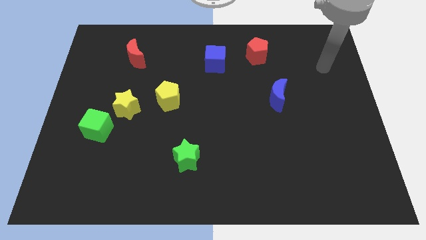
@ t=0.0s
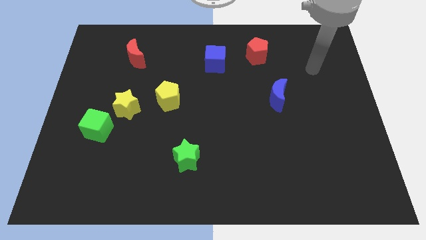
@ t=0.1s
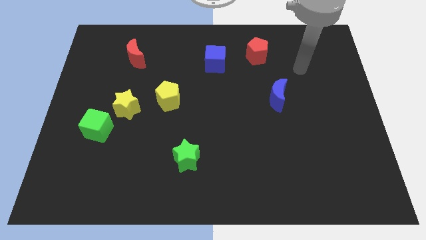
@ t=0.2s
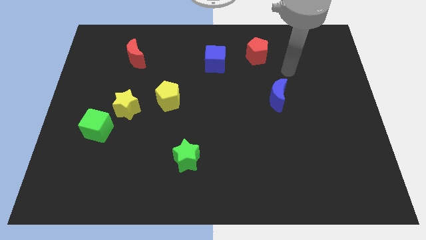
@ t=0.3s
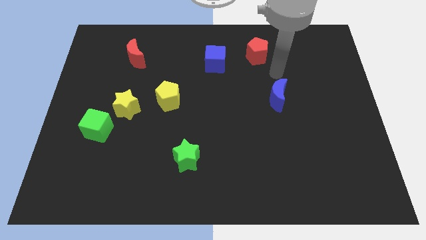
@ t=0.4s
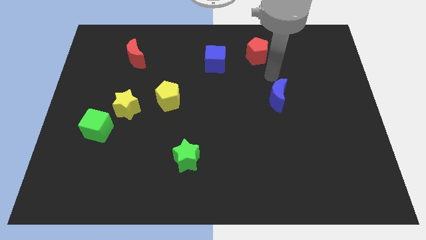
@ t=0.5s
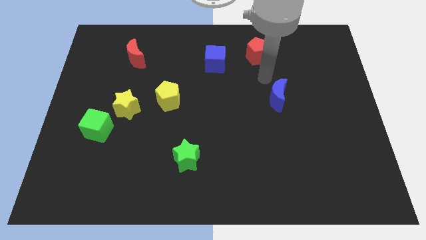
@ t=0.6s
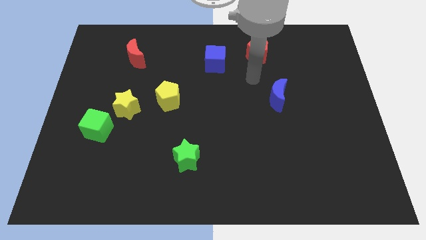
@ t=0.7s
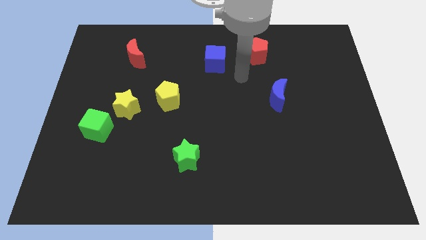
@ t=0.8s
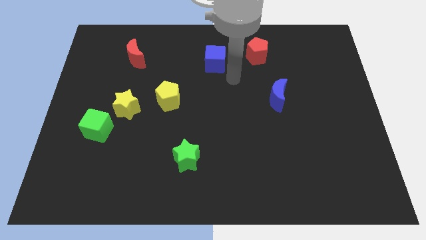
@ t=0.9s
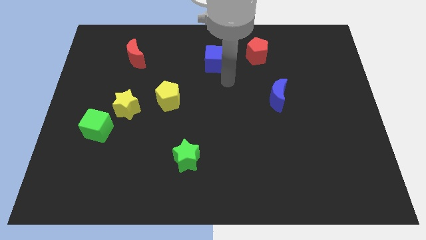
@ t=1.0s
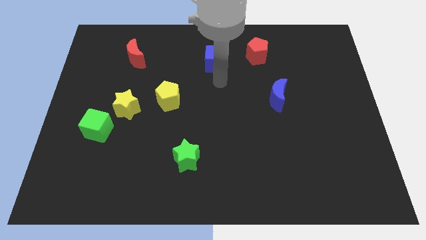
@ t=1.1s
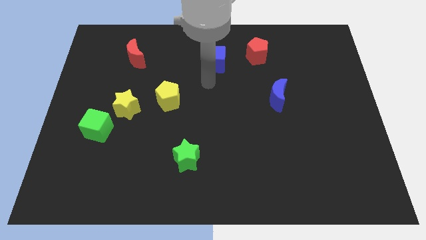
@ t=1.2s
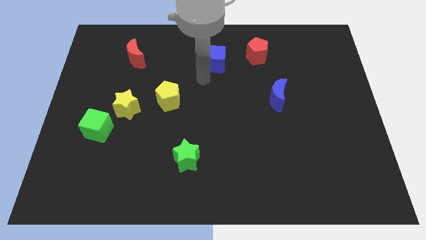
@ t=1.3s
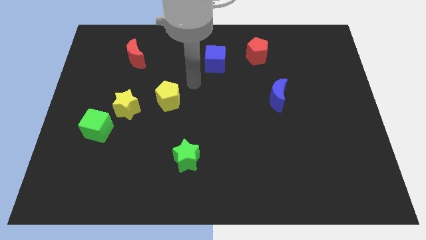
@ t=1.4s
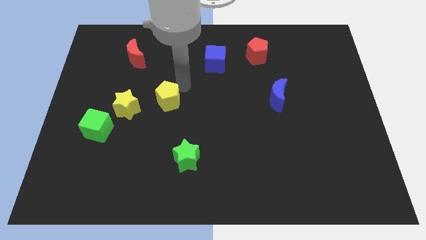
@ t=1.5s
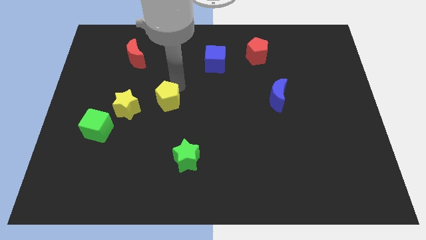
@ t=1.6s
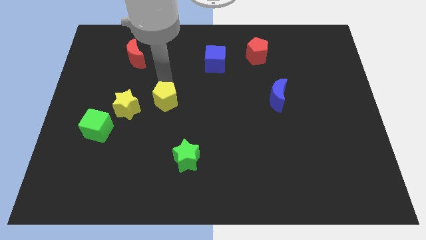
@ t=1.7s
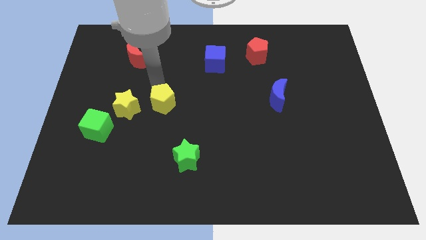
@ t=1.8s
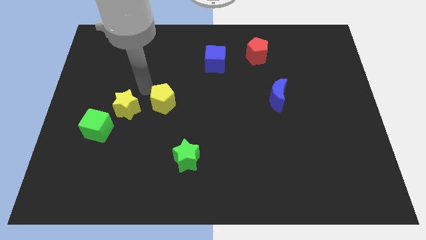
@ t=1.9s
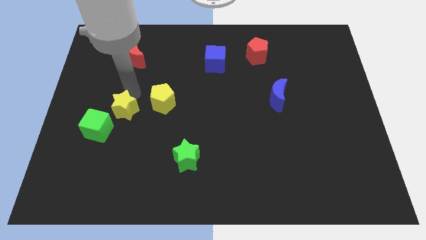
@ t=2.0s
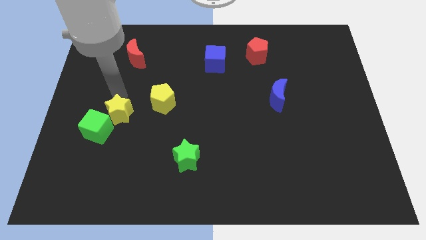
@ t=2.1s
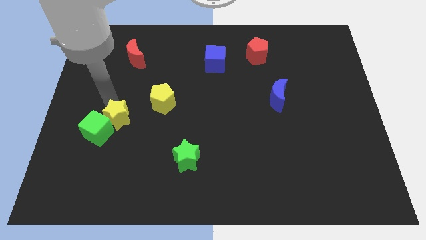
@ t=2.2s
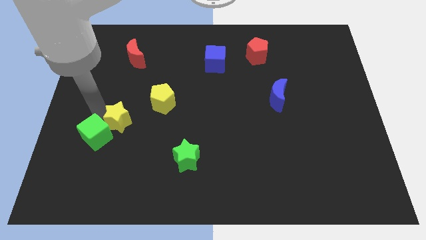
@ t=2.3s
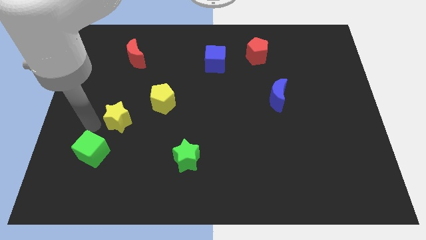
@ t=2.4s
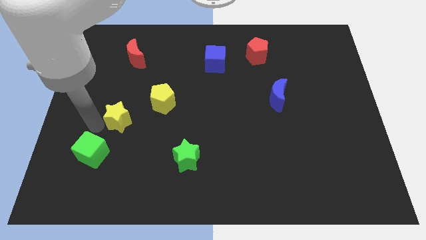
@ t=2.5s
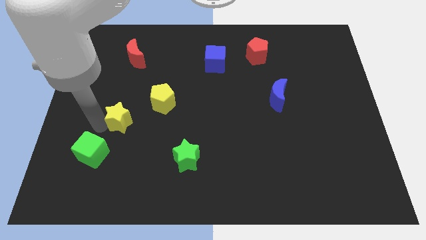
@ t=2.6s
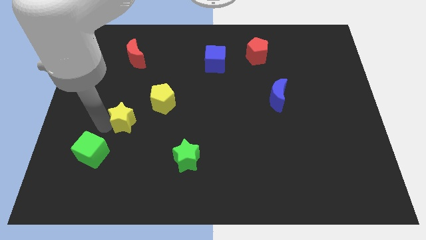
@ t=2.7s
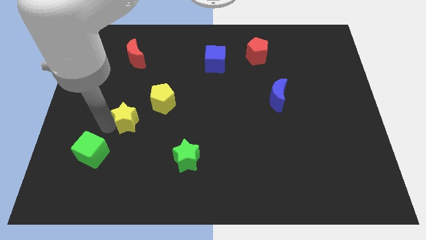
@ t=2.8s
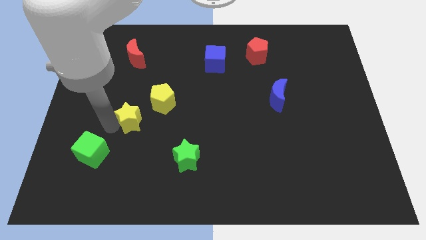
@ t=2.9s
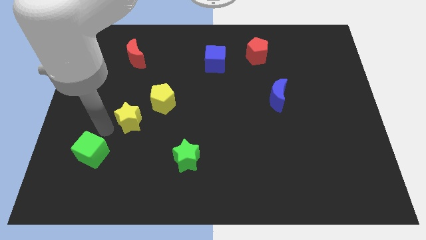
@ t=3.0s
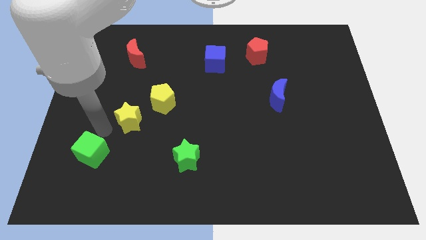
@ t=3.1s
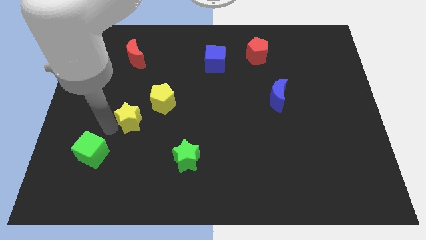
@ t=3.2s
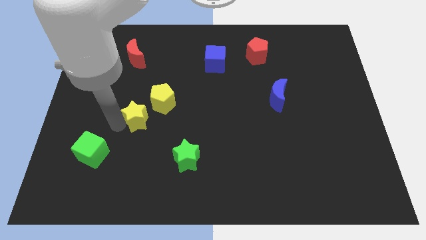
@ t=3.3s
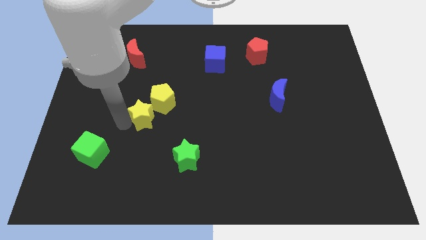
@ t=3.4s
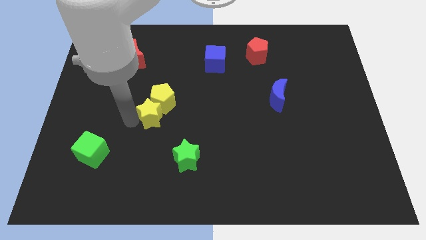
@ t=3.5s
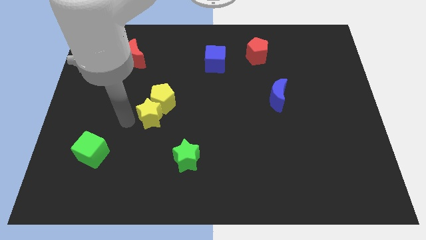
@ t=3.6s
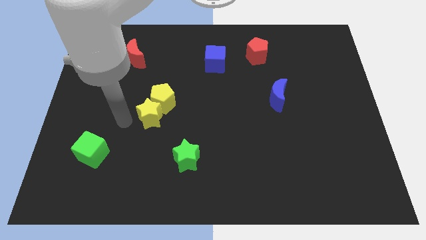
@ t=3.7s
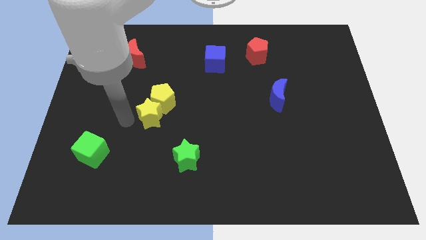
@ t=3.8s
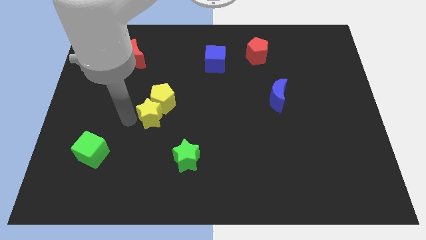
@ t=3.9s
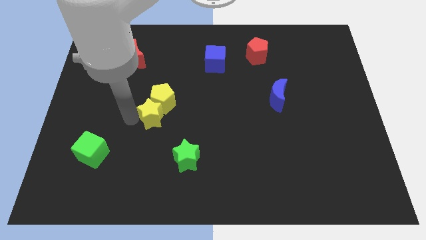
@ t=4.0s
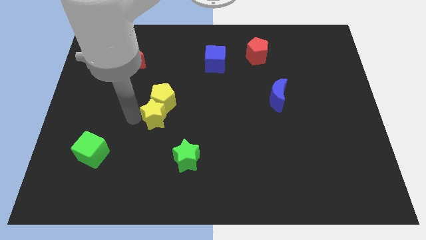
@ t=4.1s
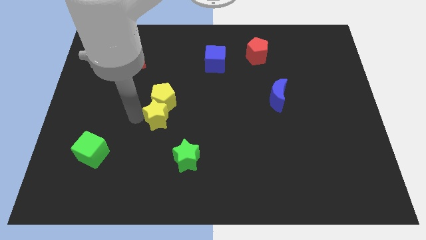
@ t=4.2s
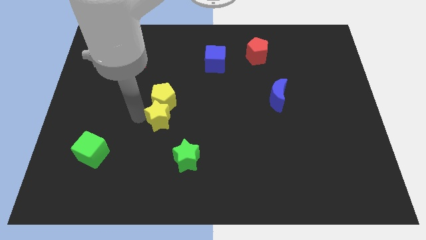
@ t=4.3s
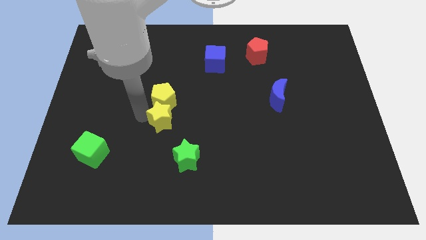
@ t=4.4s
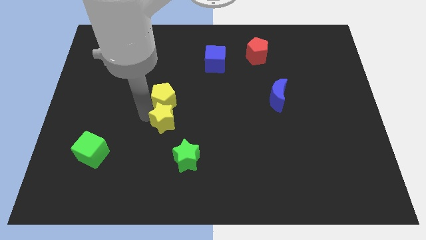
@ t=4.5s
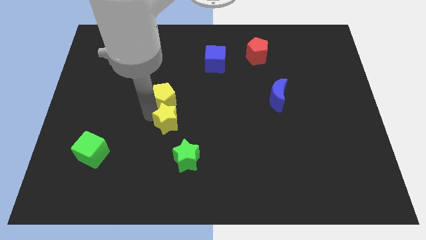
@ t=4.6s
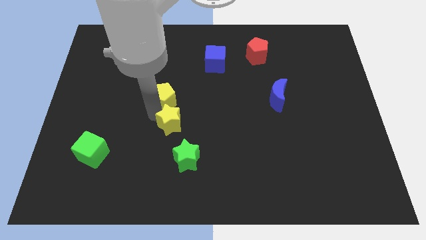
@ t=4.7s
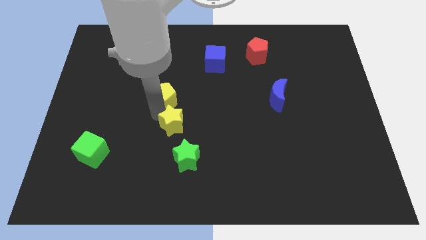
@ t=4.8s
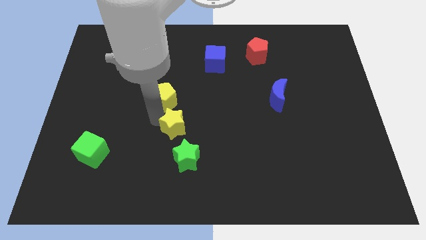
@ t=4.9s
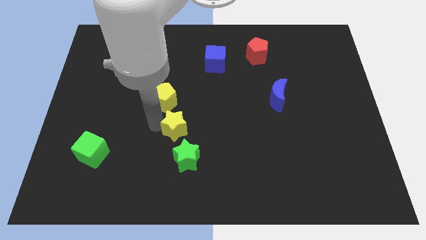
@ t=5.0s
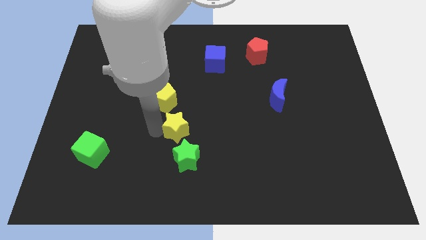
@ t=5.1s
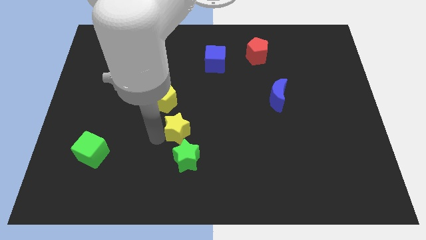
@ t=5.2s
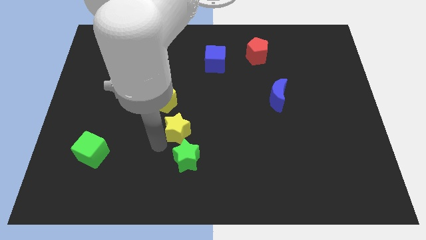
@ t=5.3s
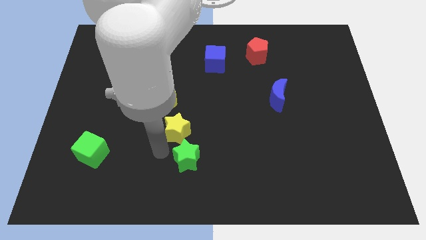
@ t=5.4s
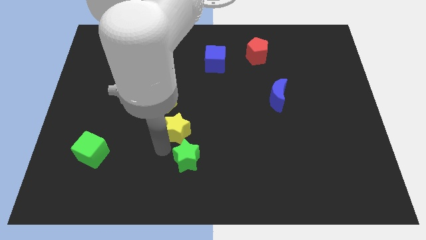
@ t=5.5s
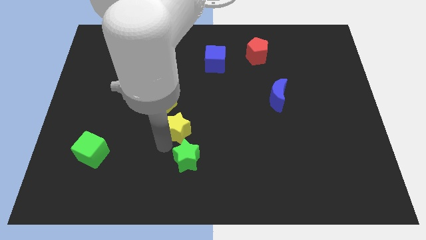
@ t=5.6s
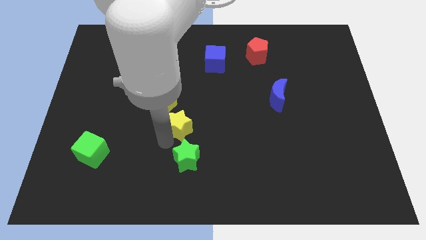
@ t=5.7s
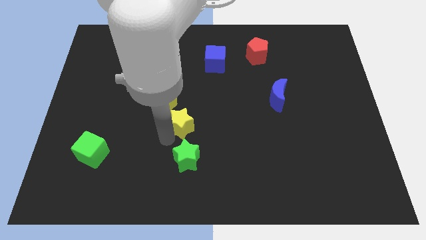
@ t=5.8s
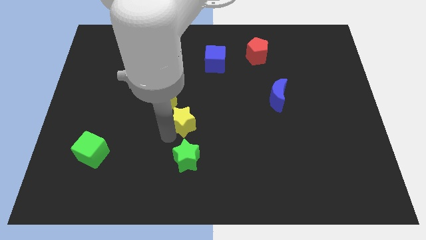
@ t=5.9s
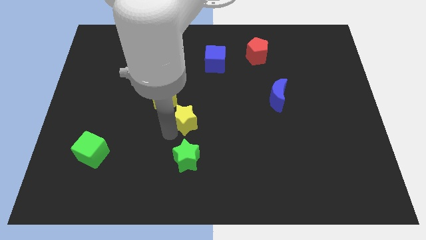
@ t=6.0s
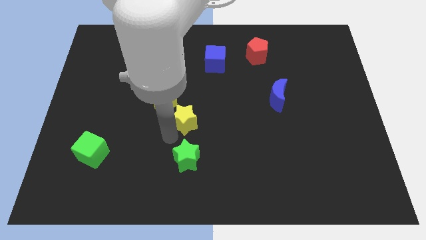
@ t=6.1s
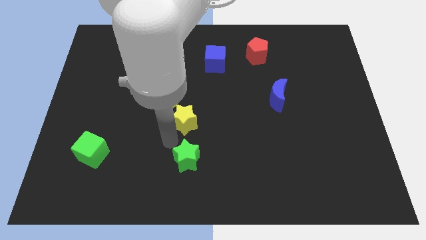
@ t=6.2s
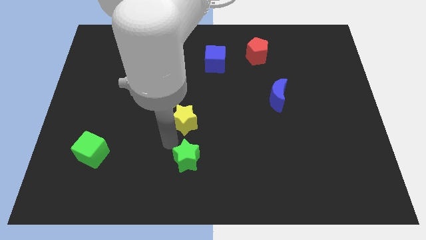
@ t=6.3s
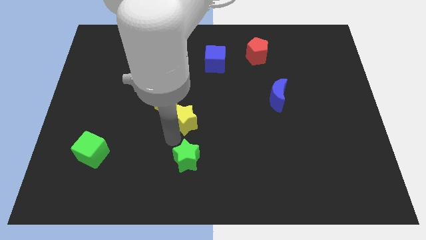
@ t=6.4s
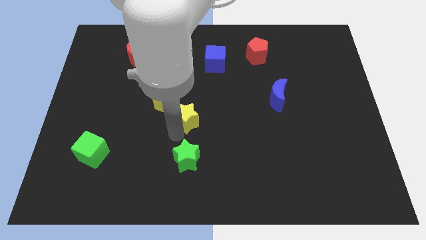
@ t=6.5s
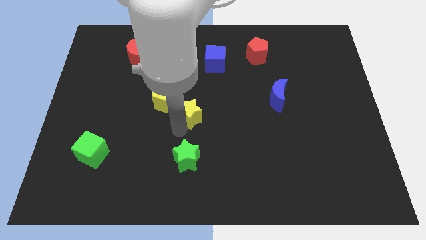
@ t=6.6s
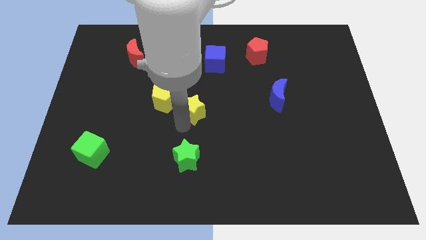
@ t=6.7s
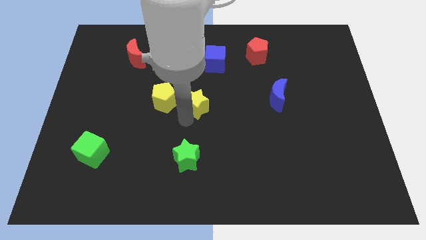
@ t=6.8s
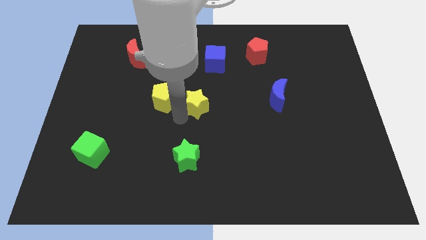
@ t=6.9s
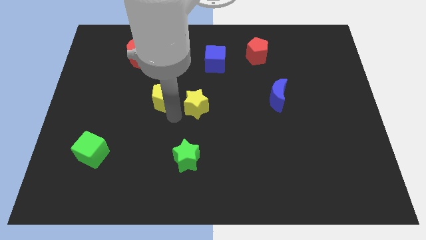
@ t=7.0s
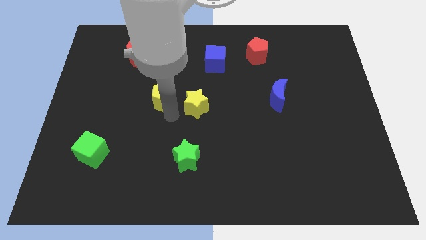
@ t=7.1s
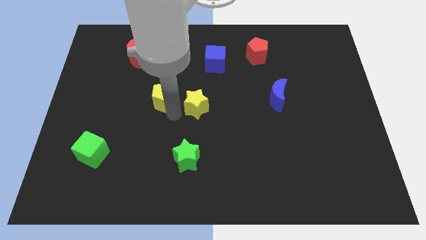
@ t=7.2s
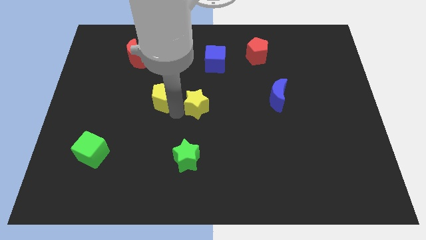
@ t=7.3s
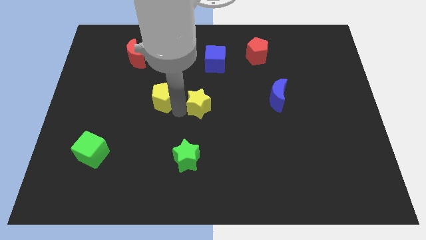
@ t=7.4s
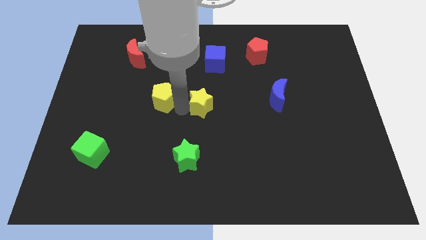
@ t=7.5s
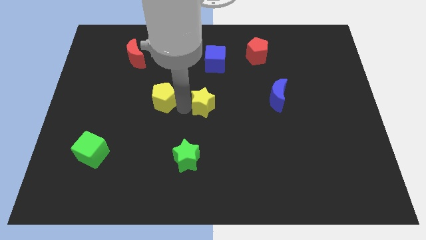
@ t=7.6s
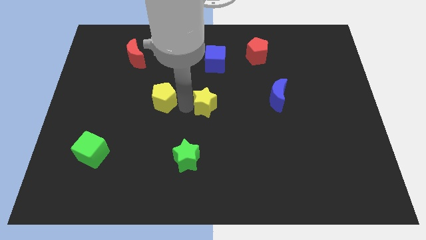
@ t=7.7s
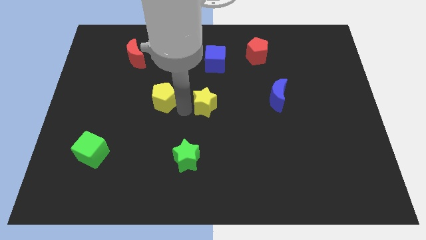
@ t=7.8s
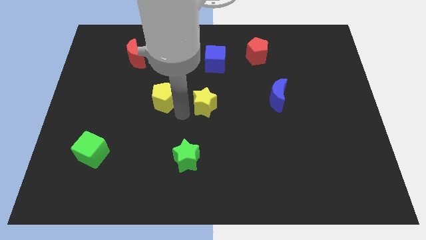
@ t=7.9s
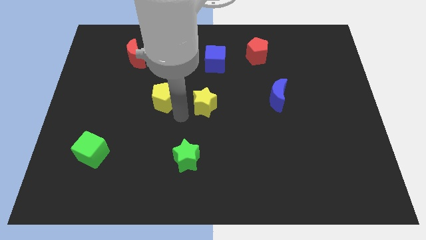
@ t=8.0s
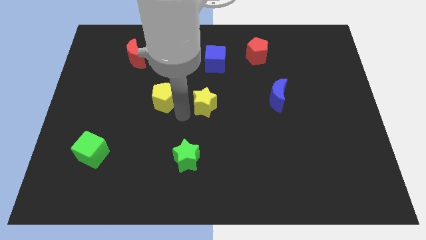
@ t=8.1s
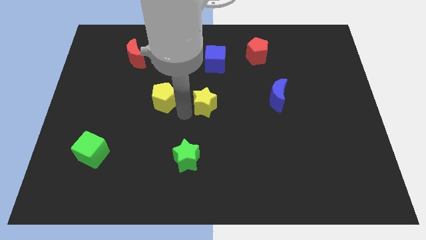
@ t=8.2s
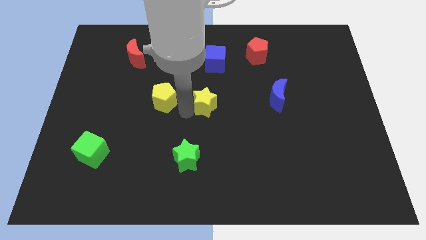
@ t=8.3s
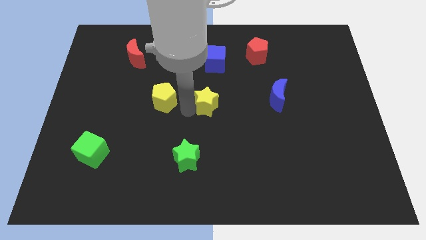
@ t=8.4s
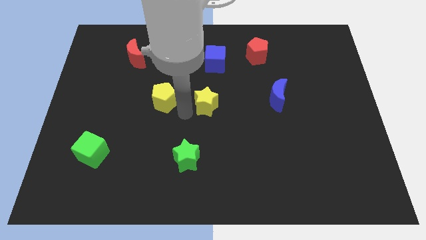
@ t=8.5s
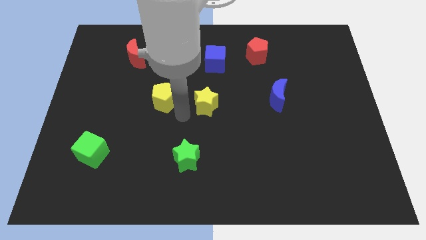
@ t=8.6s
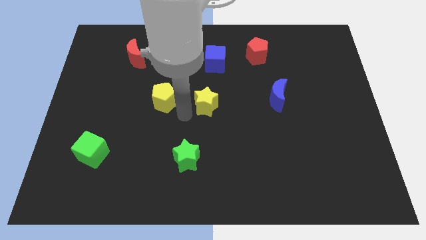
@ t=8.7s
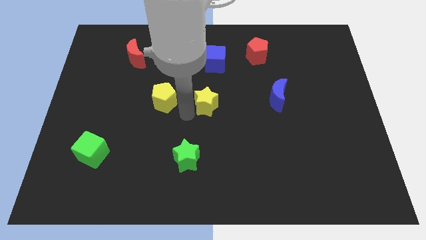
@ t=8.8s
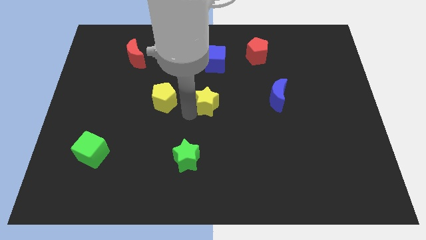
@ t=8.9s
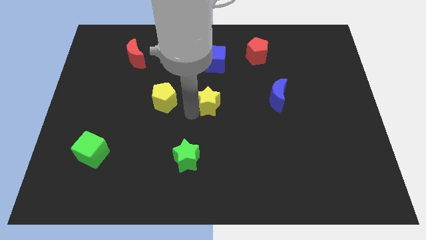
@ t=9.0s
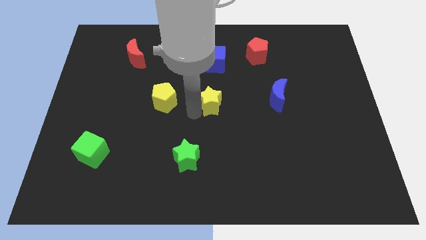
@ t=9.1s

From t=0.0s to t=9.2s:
slide the yellow star to the left of the blue moon
